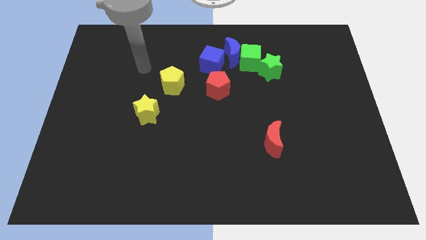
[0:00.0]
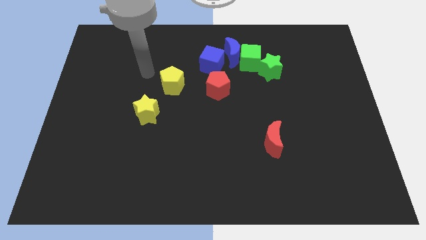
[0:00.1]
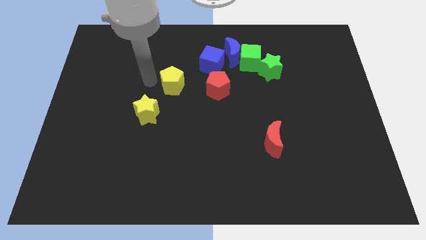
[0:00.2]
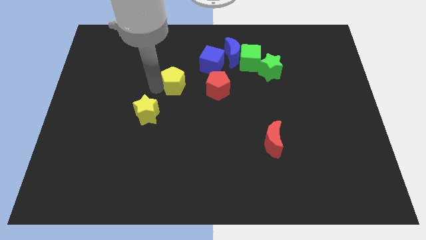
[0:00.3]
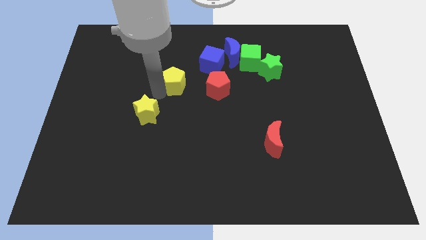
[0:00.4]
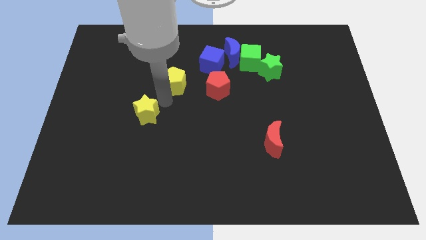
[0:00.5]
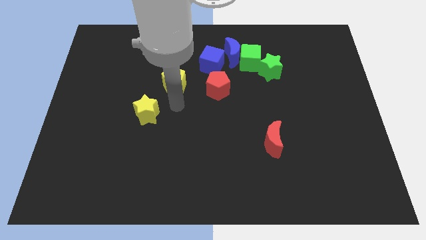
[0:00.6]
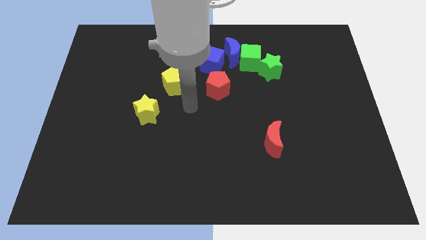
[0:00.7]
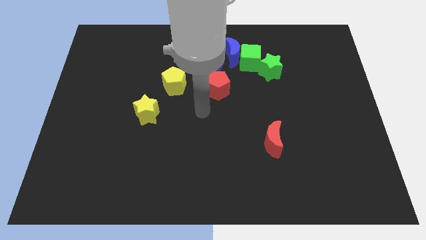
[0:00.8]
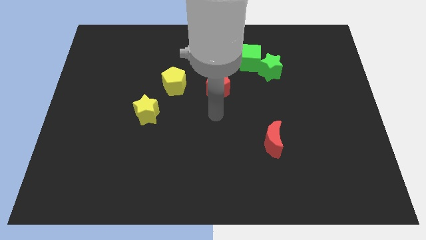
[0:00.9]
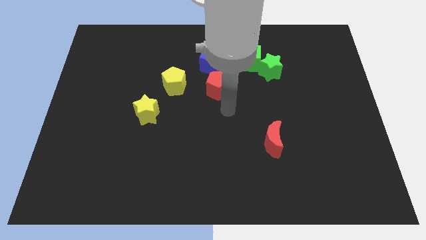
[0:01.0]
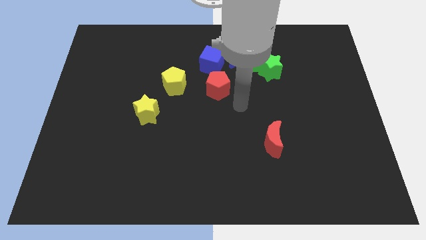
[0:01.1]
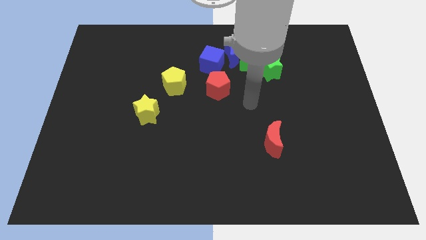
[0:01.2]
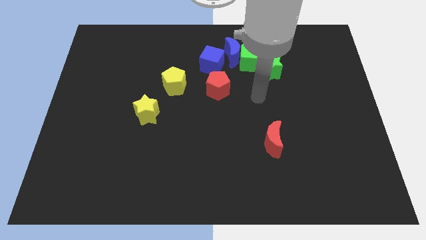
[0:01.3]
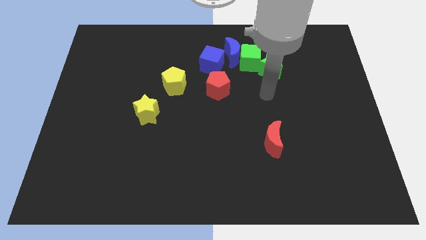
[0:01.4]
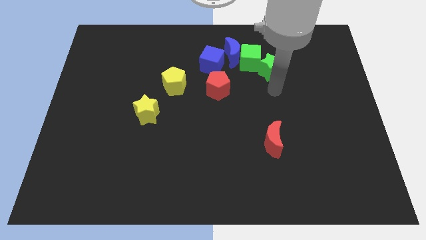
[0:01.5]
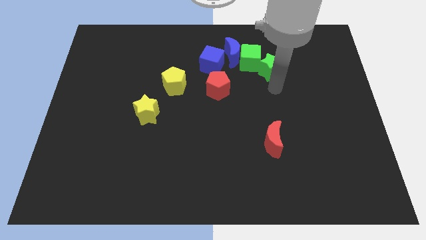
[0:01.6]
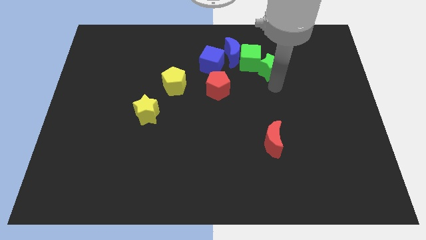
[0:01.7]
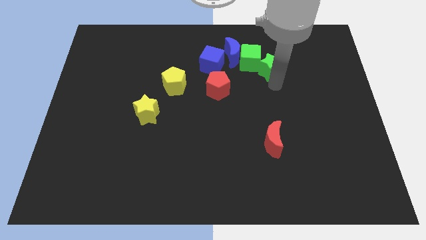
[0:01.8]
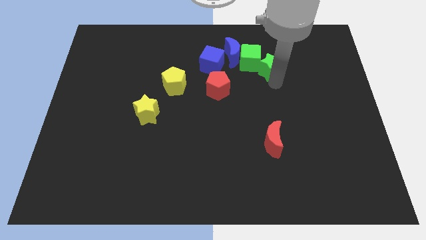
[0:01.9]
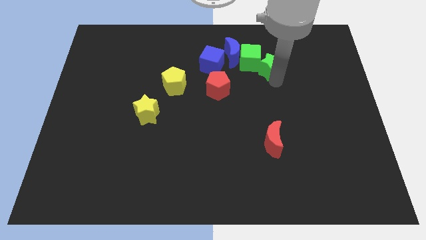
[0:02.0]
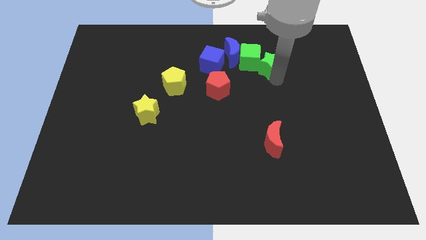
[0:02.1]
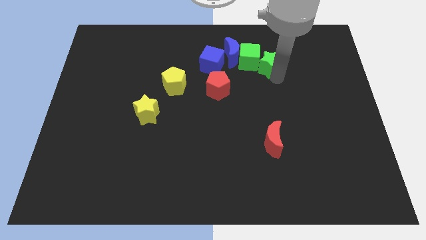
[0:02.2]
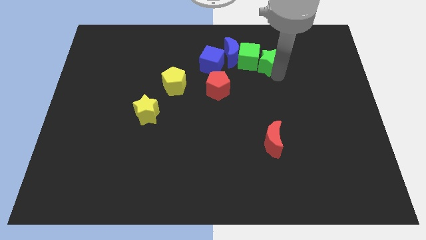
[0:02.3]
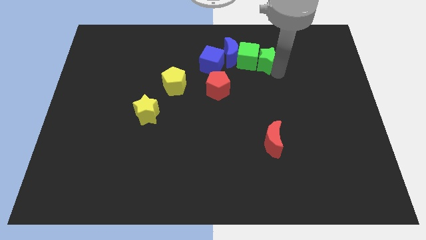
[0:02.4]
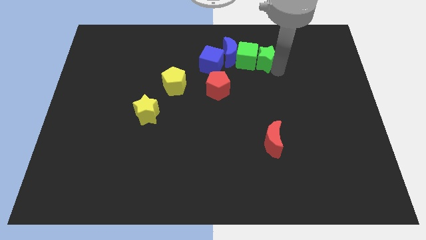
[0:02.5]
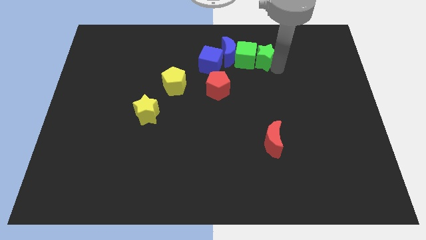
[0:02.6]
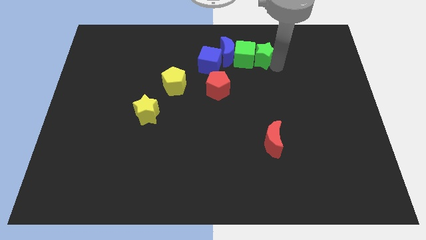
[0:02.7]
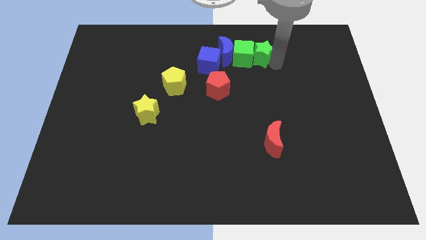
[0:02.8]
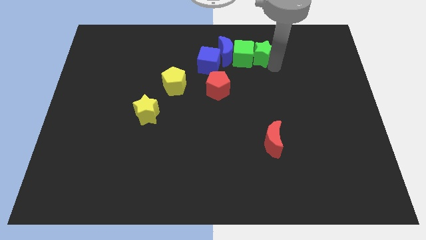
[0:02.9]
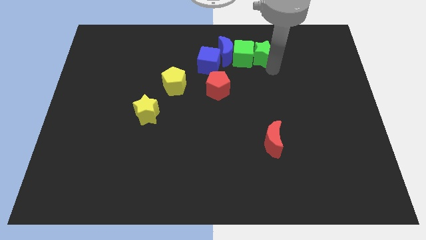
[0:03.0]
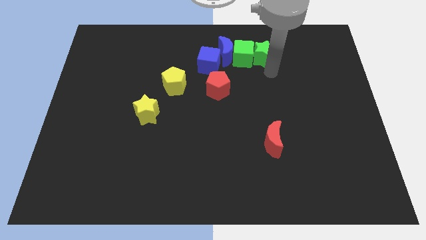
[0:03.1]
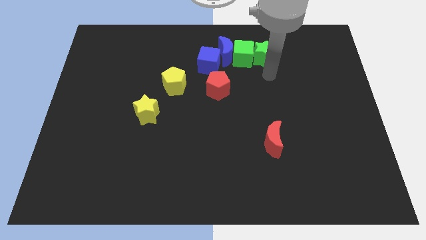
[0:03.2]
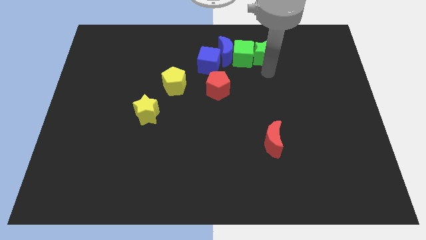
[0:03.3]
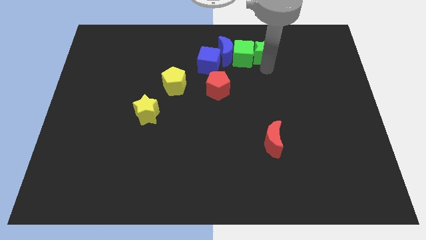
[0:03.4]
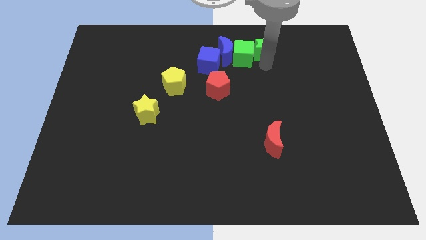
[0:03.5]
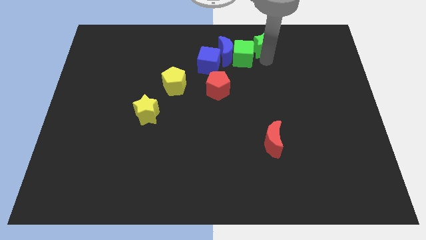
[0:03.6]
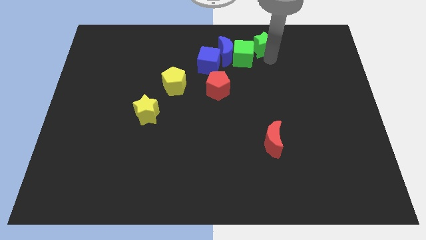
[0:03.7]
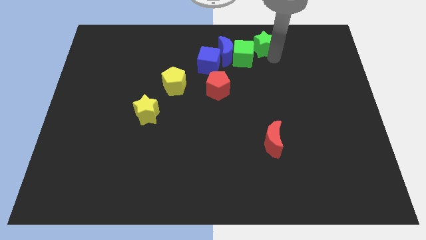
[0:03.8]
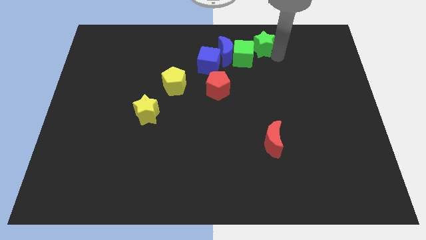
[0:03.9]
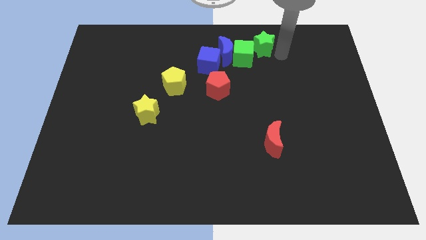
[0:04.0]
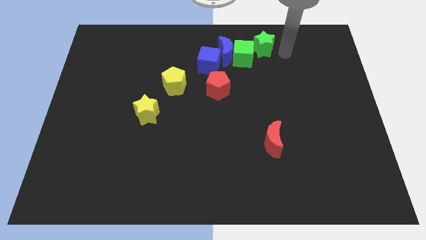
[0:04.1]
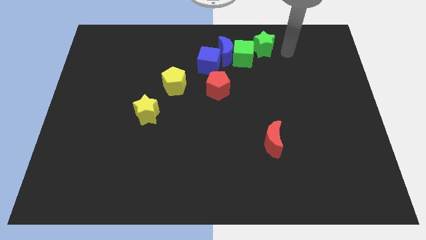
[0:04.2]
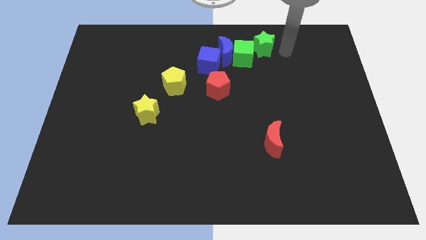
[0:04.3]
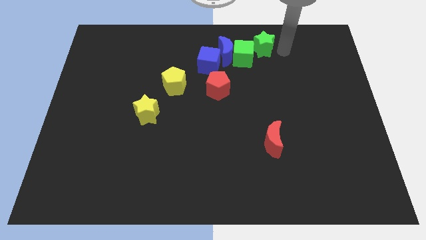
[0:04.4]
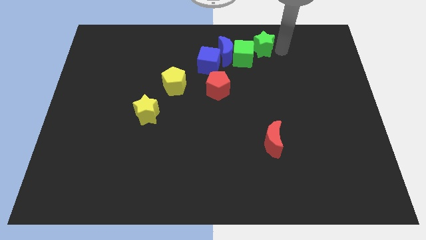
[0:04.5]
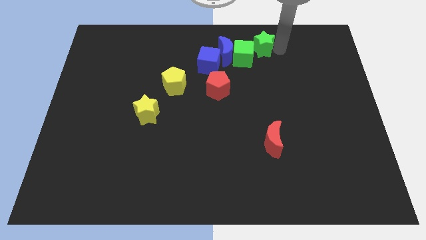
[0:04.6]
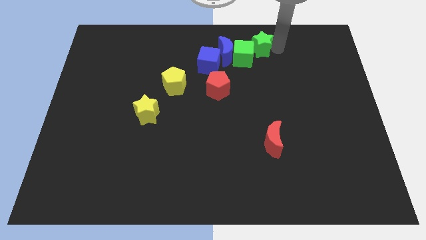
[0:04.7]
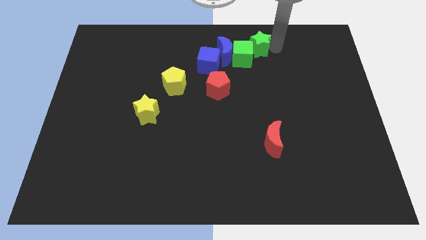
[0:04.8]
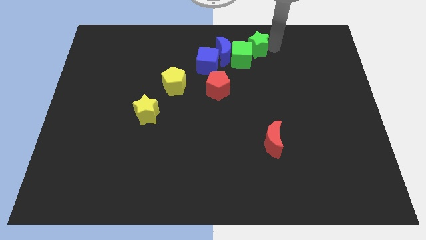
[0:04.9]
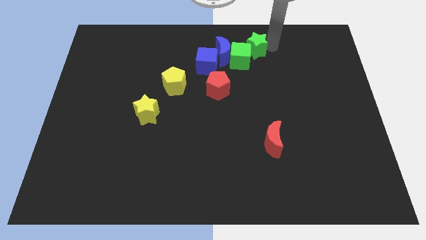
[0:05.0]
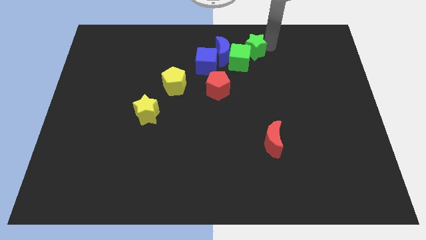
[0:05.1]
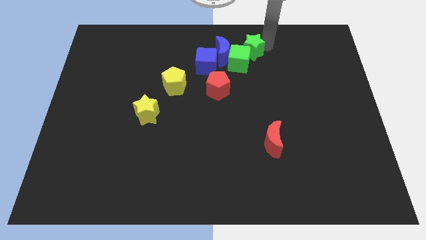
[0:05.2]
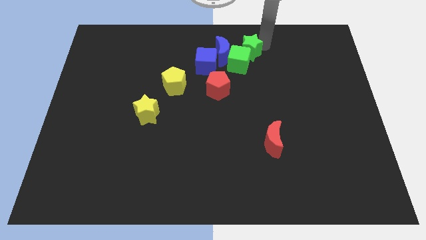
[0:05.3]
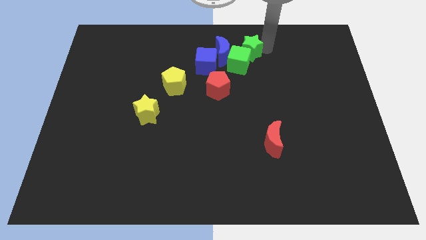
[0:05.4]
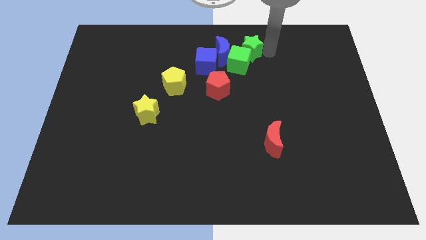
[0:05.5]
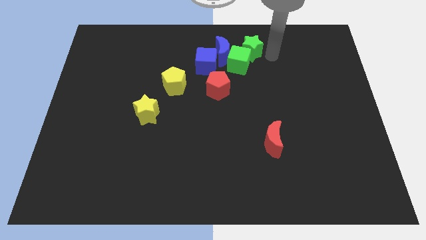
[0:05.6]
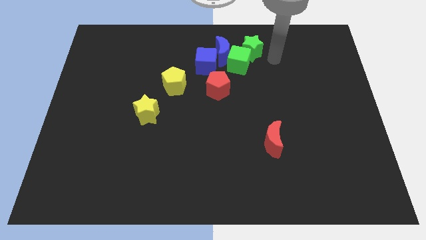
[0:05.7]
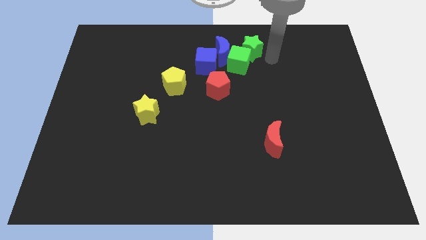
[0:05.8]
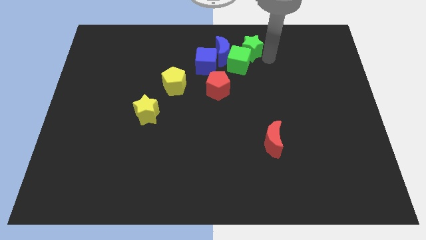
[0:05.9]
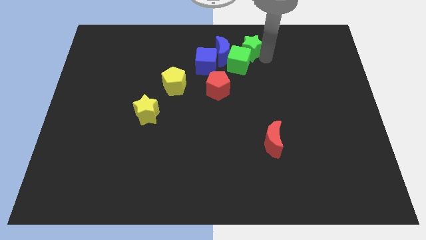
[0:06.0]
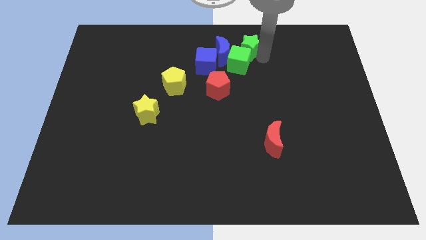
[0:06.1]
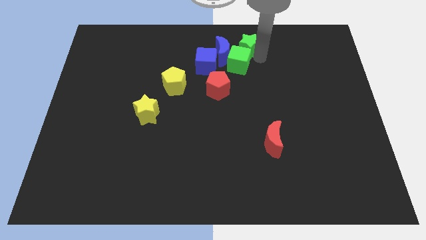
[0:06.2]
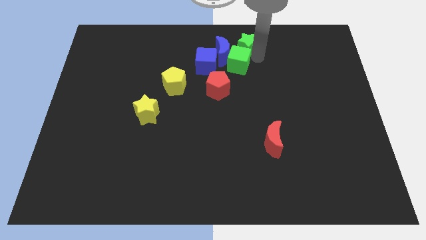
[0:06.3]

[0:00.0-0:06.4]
move the green star to the towards your base

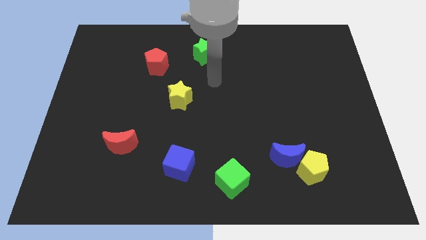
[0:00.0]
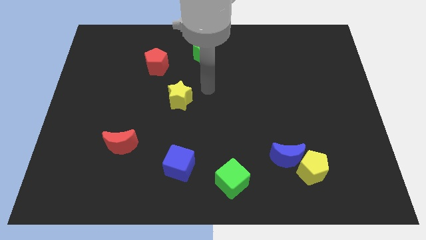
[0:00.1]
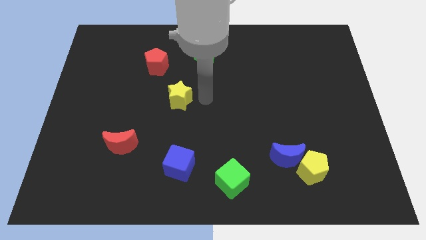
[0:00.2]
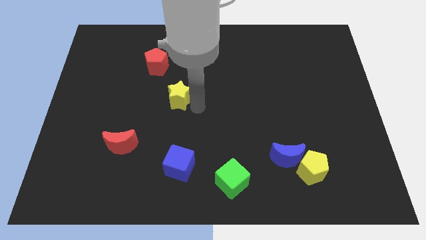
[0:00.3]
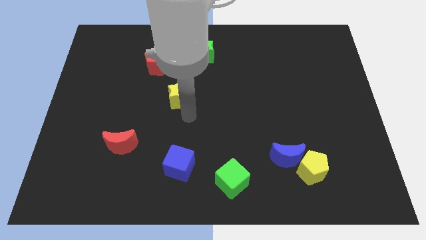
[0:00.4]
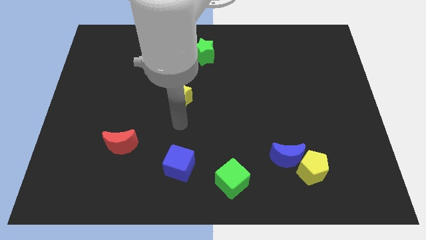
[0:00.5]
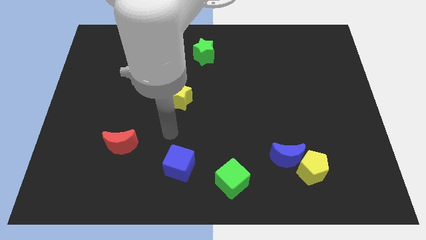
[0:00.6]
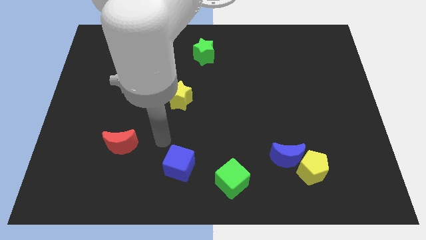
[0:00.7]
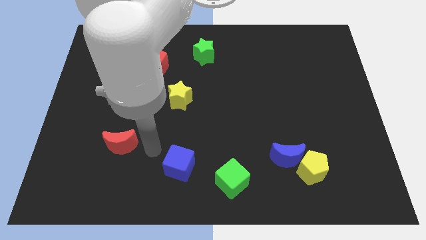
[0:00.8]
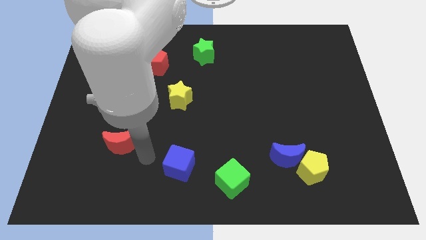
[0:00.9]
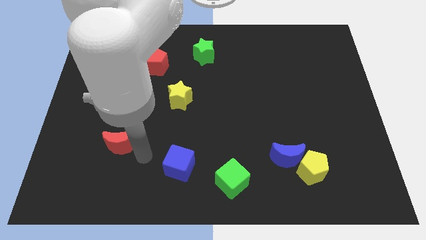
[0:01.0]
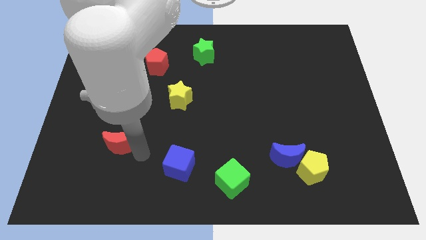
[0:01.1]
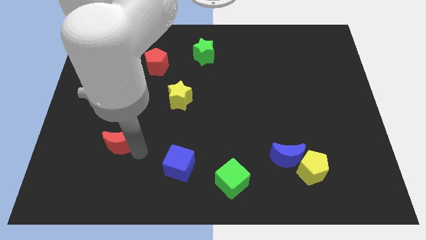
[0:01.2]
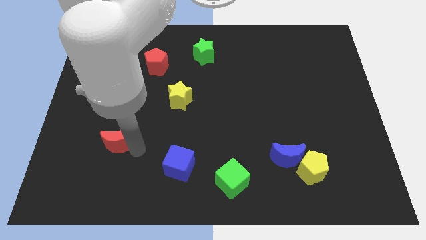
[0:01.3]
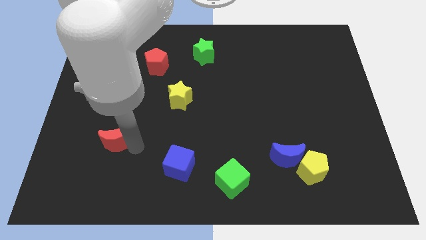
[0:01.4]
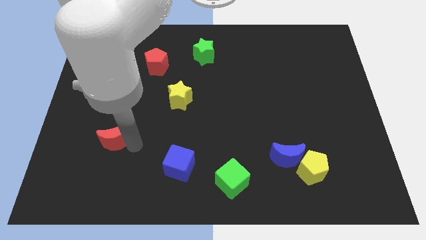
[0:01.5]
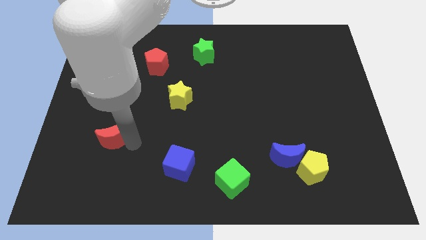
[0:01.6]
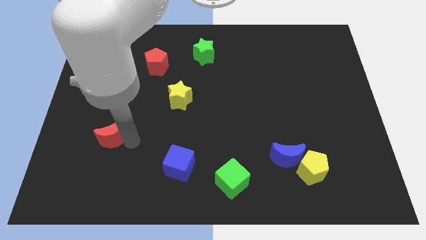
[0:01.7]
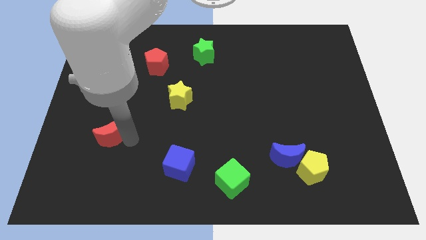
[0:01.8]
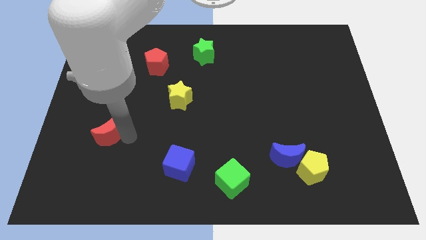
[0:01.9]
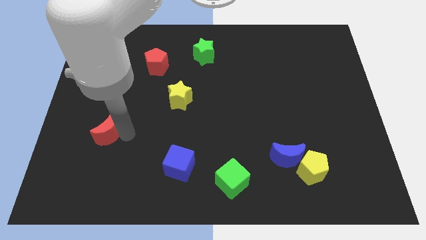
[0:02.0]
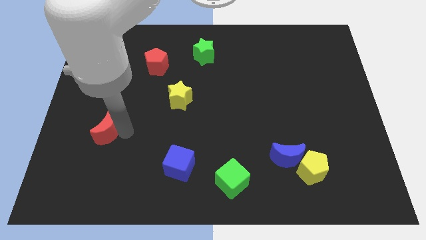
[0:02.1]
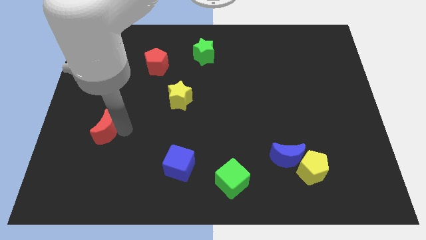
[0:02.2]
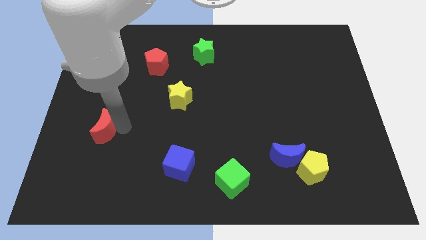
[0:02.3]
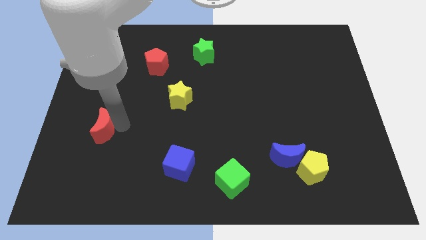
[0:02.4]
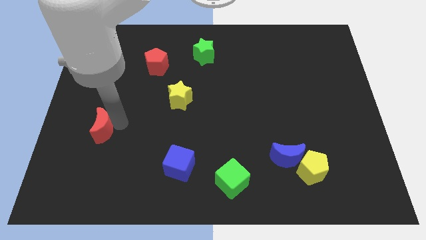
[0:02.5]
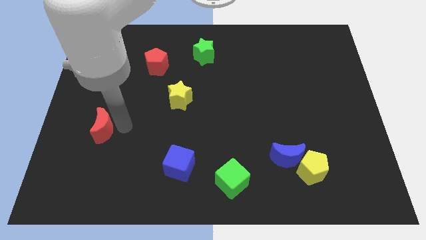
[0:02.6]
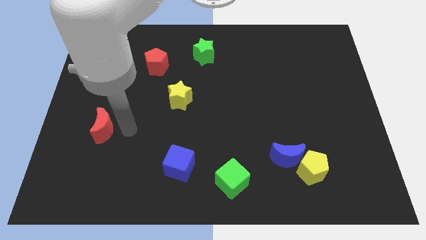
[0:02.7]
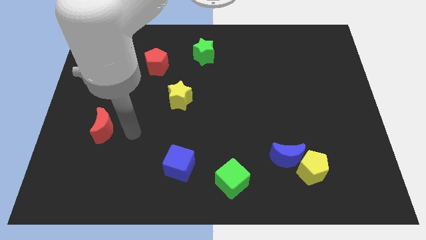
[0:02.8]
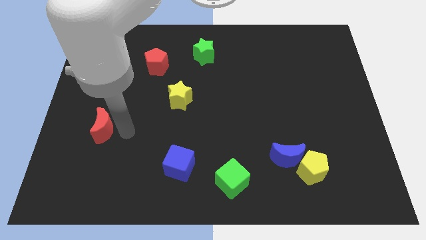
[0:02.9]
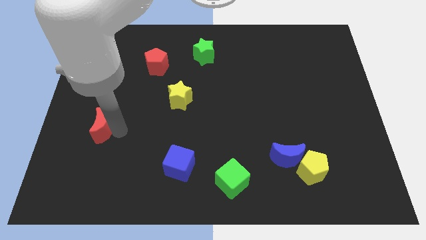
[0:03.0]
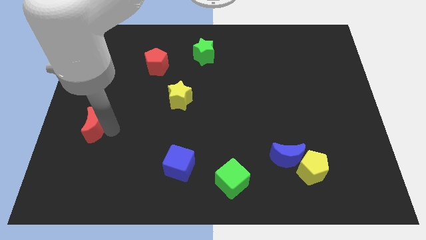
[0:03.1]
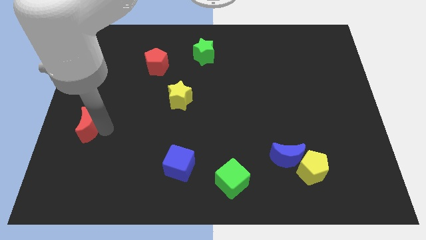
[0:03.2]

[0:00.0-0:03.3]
put the red moon to the center left
